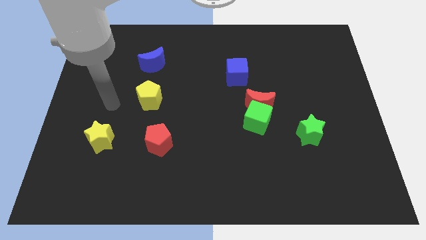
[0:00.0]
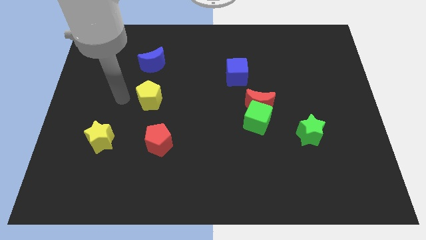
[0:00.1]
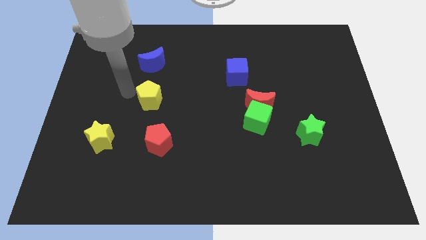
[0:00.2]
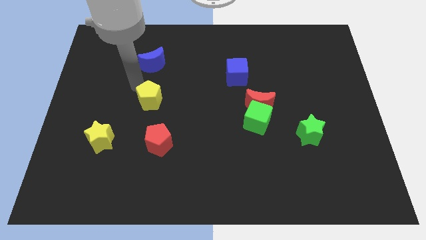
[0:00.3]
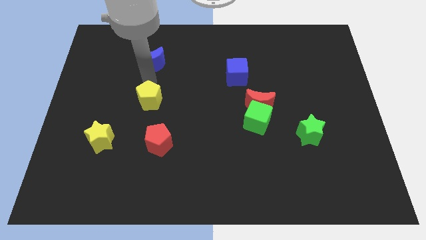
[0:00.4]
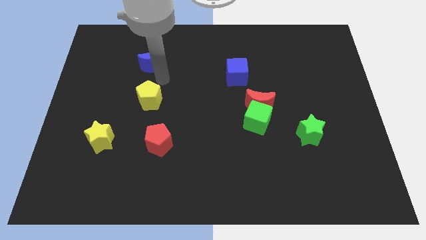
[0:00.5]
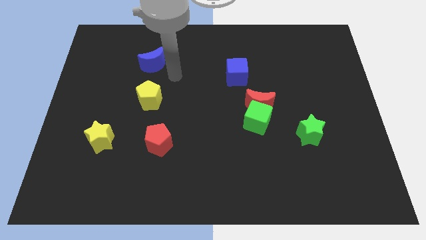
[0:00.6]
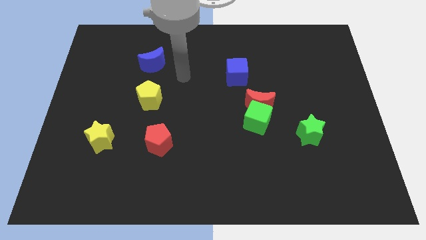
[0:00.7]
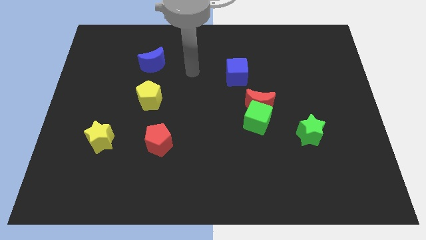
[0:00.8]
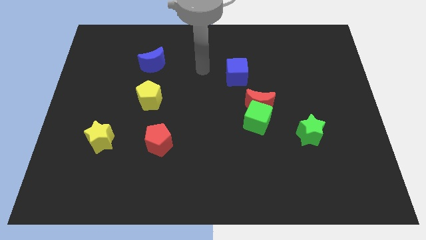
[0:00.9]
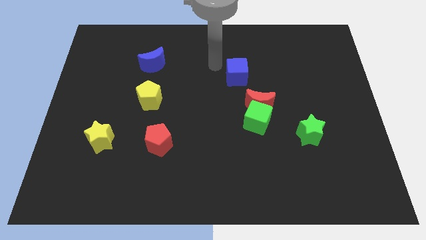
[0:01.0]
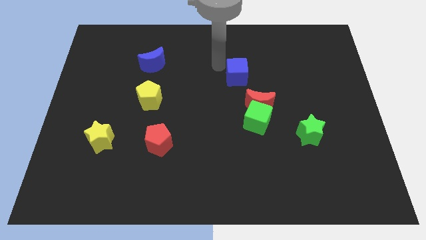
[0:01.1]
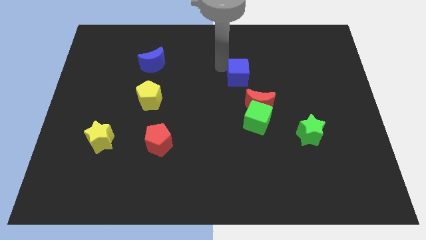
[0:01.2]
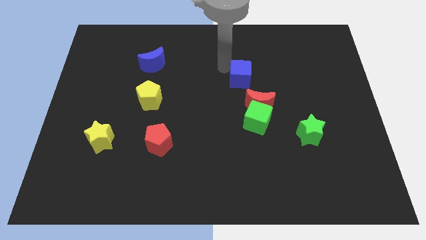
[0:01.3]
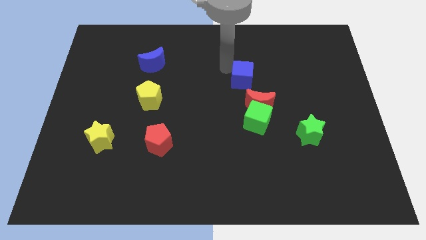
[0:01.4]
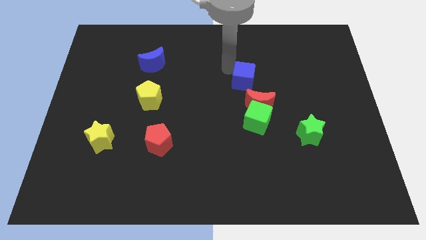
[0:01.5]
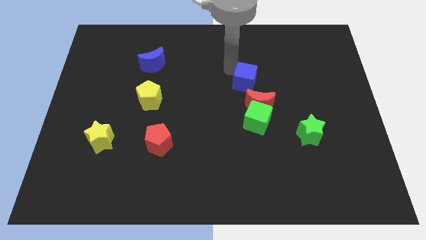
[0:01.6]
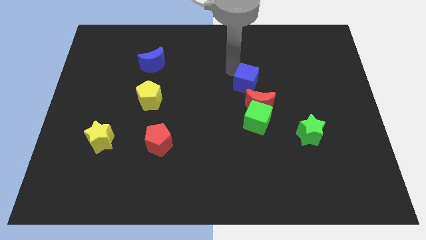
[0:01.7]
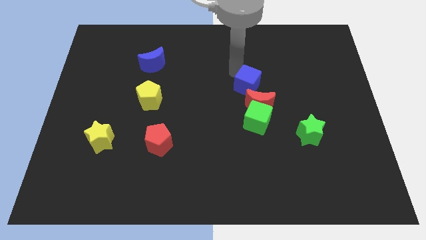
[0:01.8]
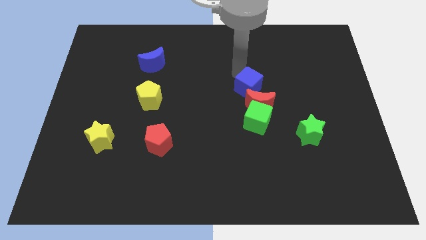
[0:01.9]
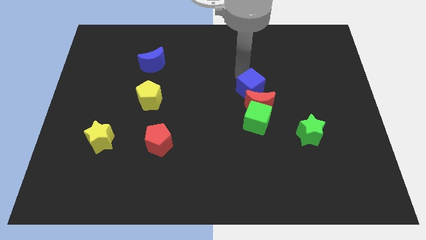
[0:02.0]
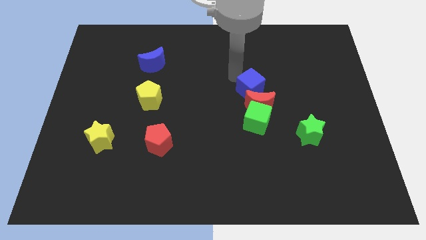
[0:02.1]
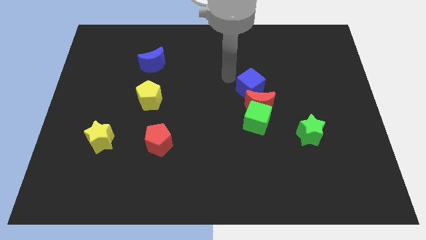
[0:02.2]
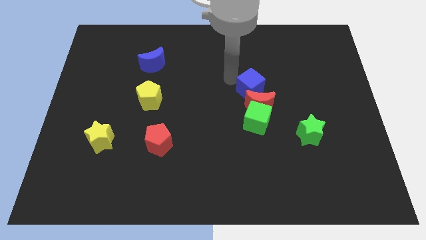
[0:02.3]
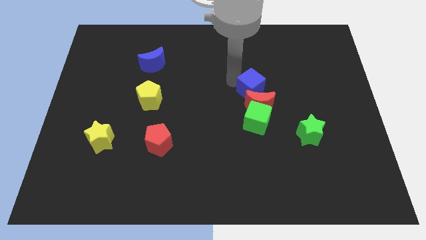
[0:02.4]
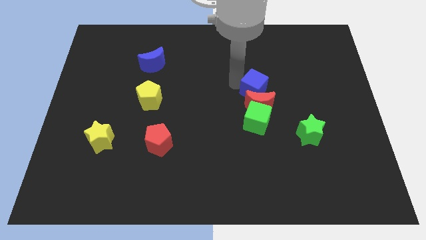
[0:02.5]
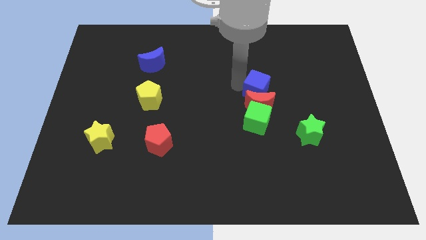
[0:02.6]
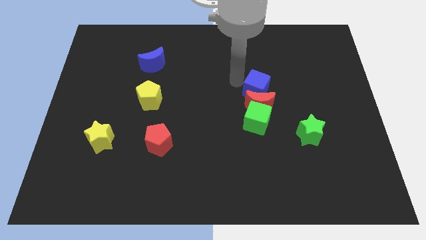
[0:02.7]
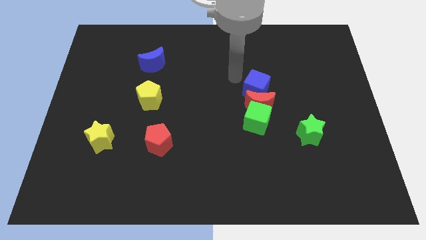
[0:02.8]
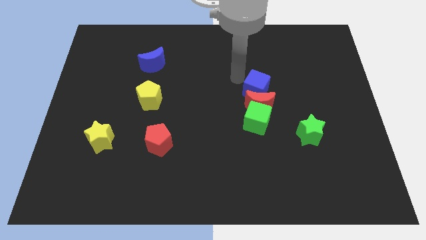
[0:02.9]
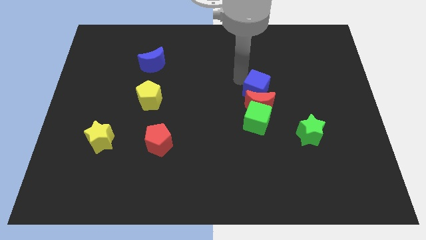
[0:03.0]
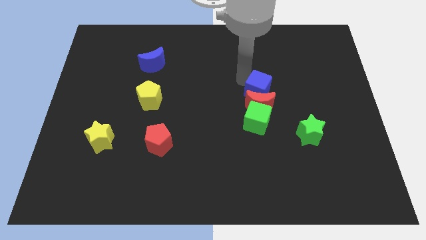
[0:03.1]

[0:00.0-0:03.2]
push the blue cube a little bit down and then to the right

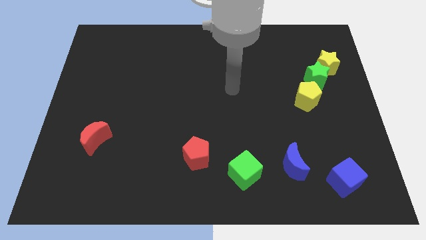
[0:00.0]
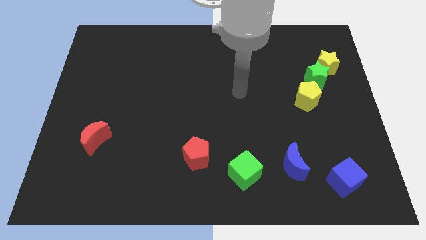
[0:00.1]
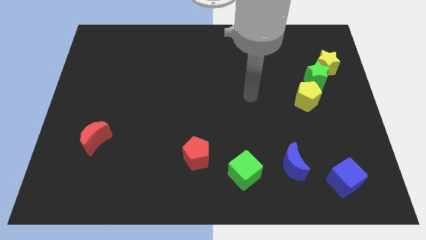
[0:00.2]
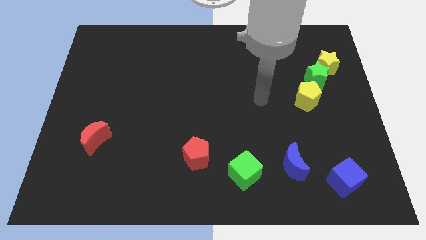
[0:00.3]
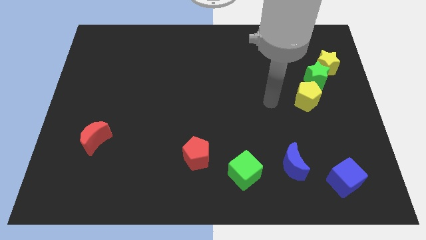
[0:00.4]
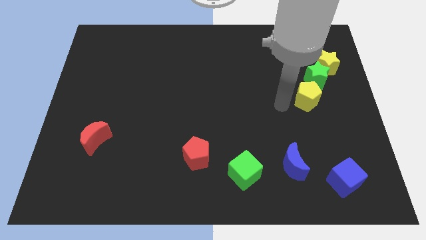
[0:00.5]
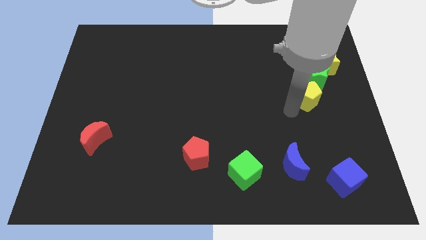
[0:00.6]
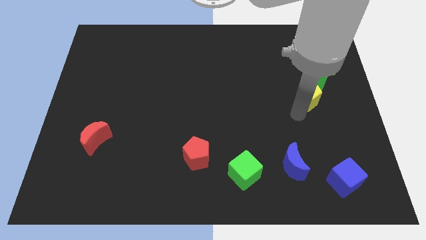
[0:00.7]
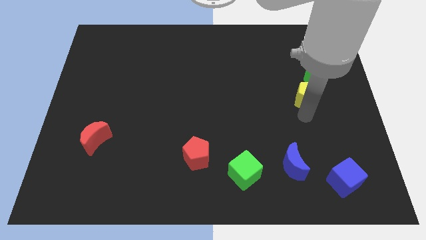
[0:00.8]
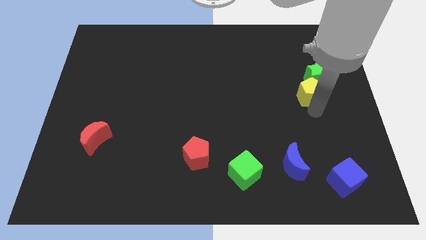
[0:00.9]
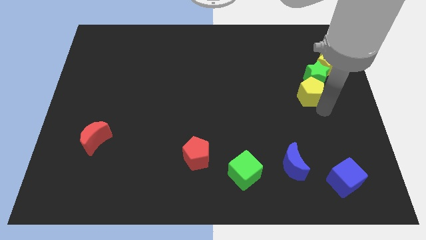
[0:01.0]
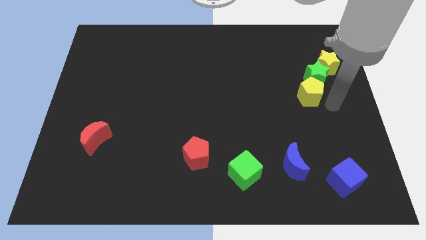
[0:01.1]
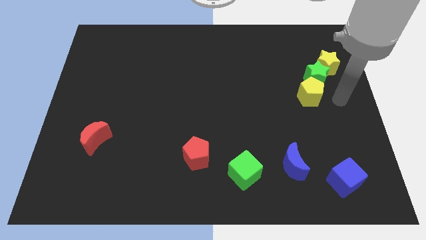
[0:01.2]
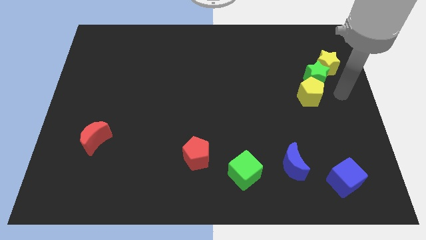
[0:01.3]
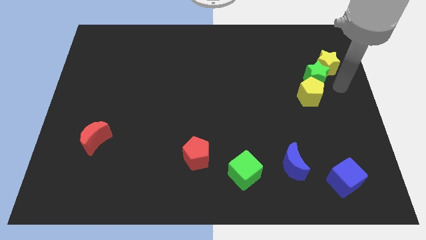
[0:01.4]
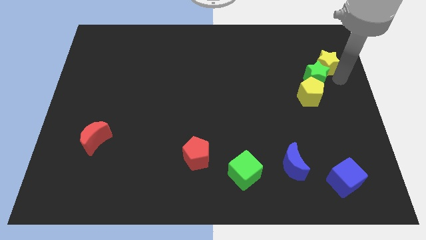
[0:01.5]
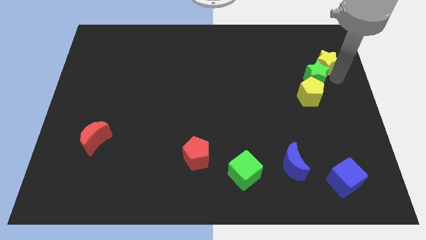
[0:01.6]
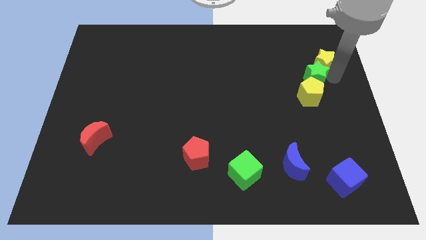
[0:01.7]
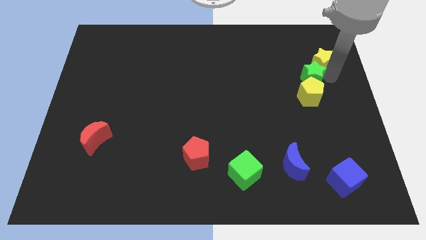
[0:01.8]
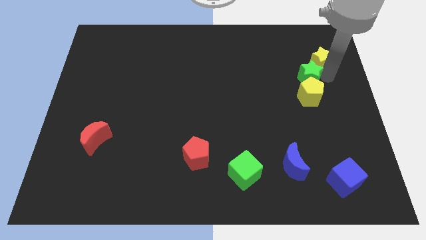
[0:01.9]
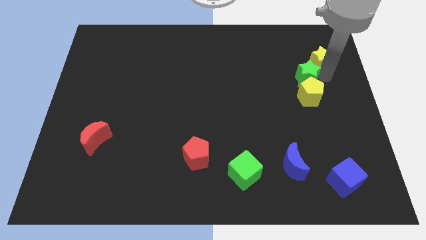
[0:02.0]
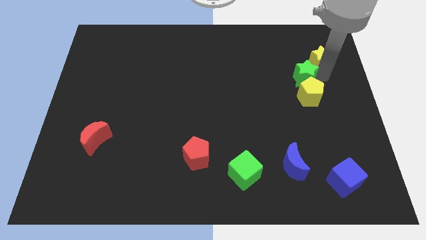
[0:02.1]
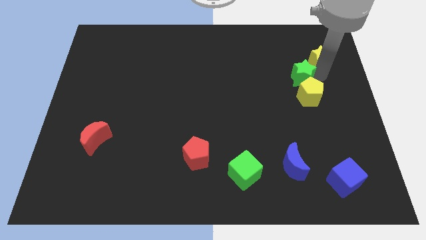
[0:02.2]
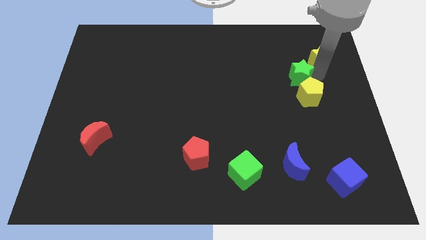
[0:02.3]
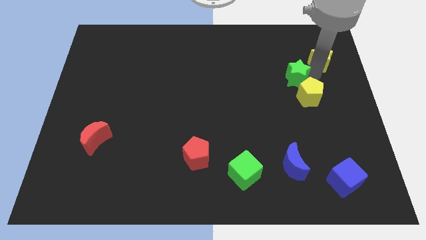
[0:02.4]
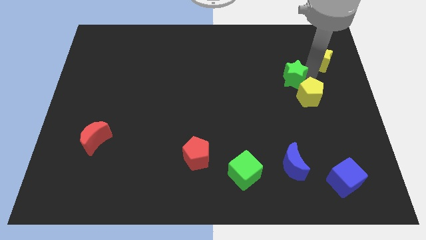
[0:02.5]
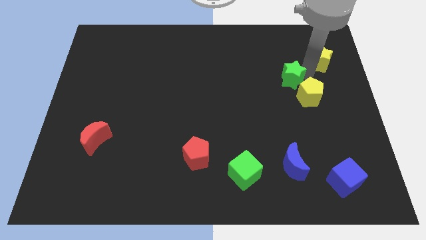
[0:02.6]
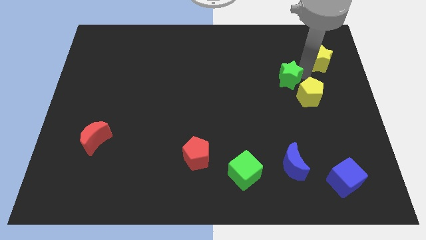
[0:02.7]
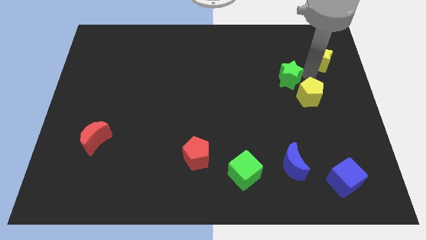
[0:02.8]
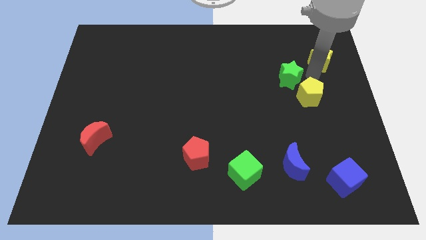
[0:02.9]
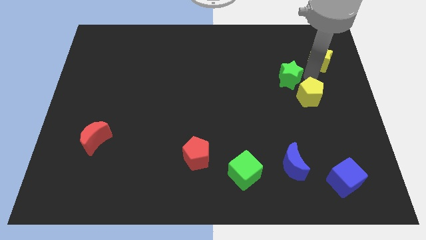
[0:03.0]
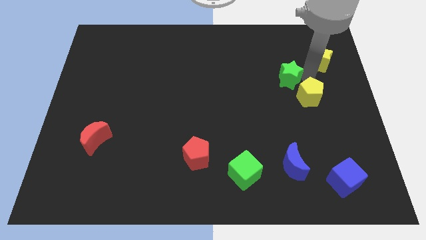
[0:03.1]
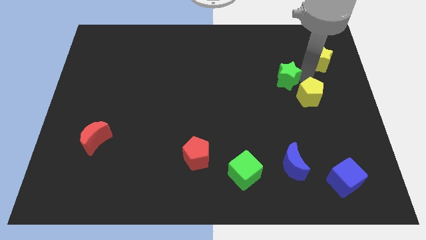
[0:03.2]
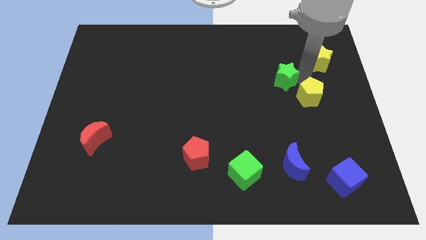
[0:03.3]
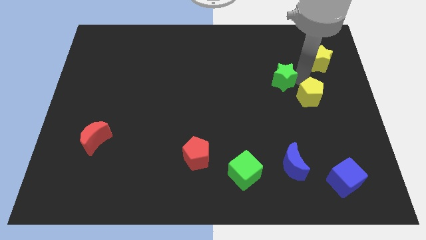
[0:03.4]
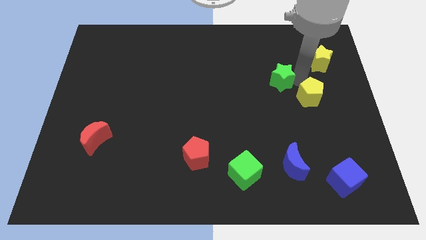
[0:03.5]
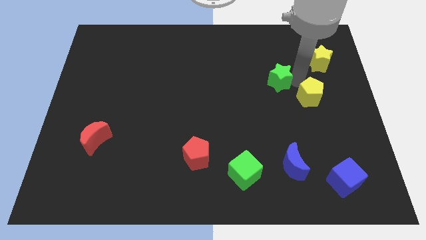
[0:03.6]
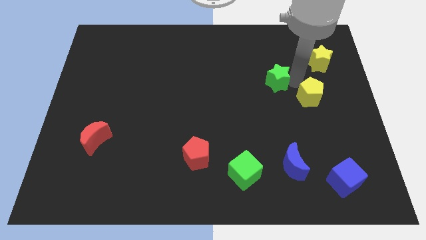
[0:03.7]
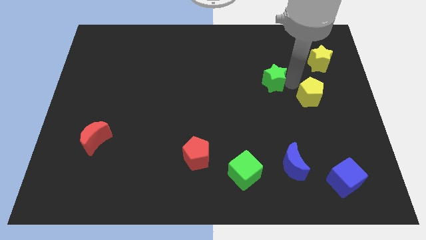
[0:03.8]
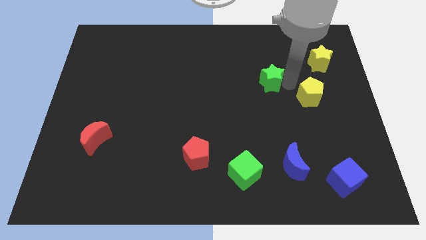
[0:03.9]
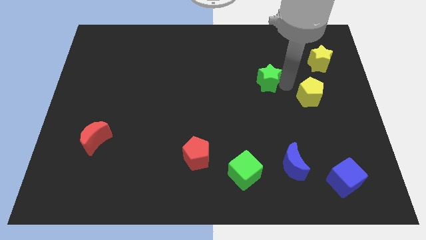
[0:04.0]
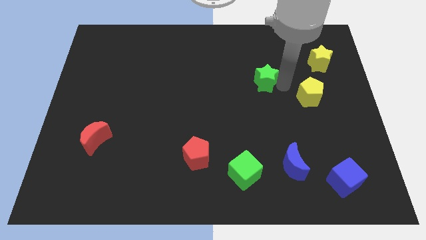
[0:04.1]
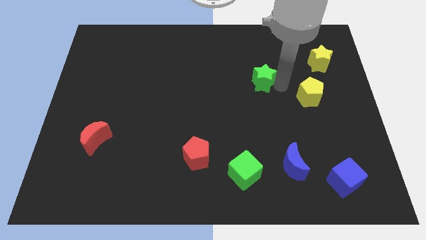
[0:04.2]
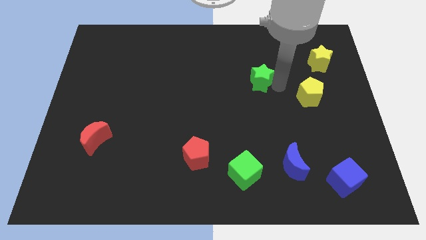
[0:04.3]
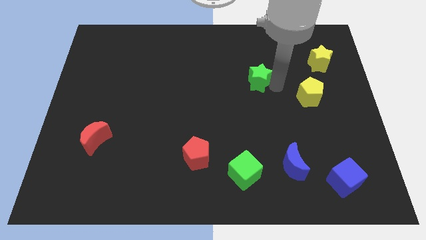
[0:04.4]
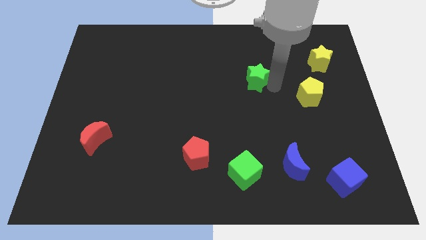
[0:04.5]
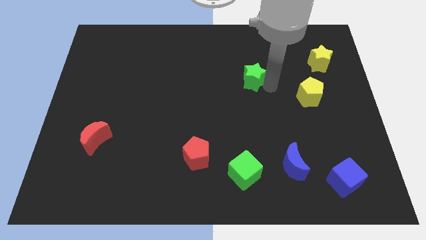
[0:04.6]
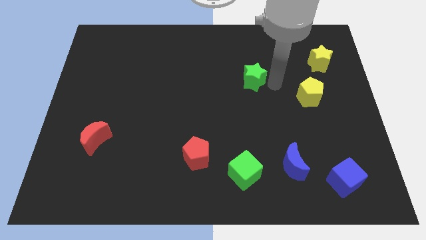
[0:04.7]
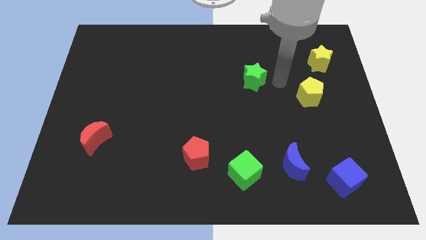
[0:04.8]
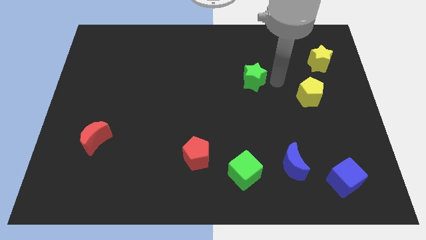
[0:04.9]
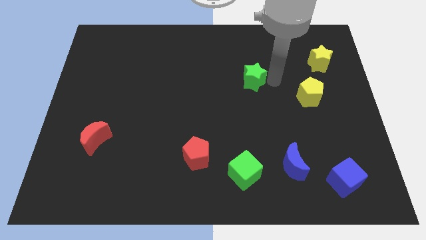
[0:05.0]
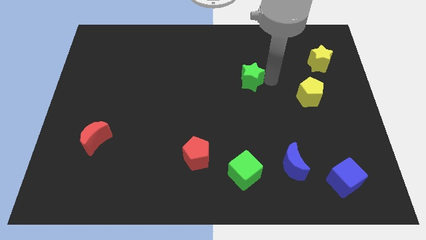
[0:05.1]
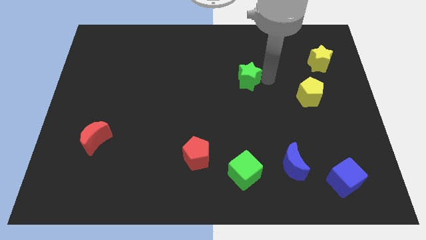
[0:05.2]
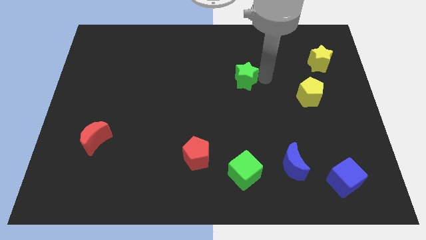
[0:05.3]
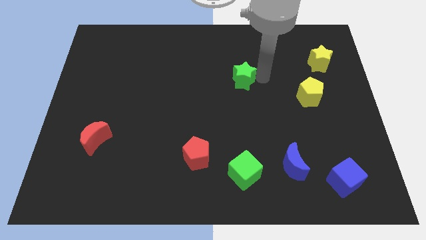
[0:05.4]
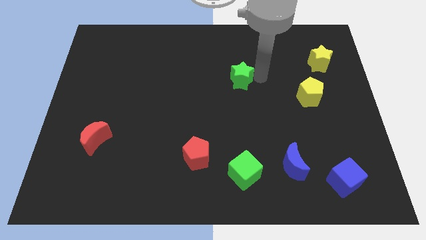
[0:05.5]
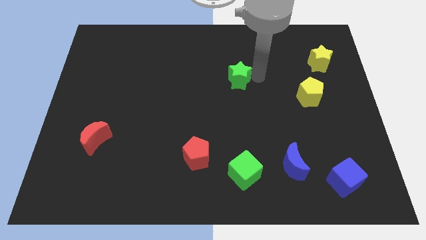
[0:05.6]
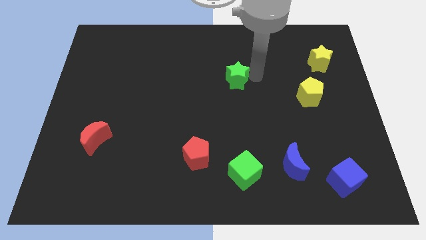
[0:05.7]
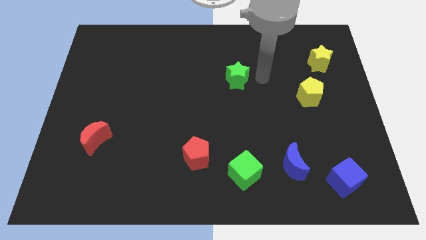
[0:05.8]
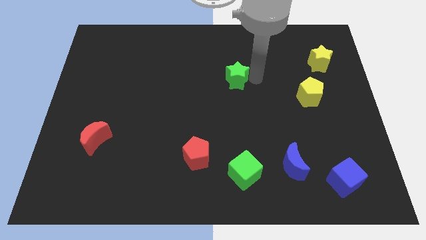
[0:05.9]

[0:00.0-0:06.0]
push the green star left
